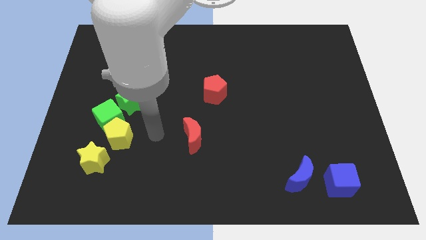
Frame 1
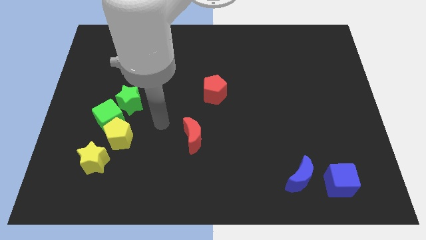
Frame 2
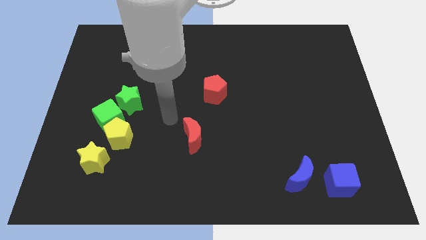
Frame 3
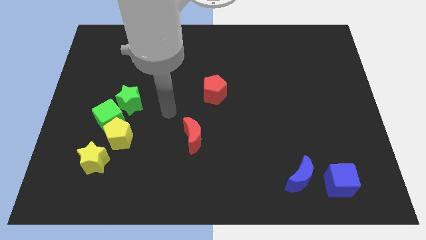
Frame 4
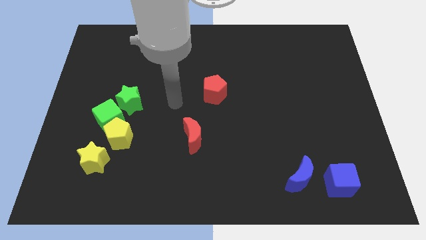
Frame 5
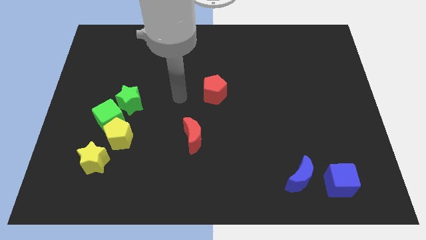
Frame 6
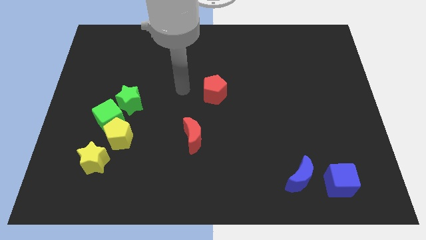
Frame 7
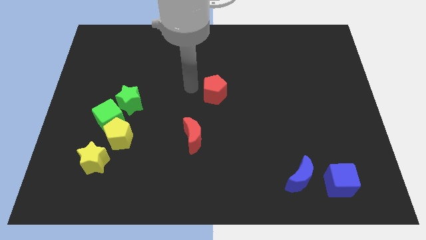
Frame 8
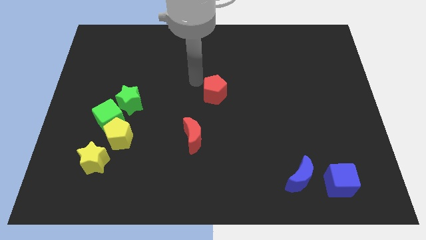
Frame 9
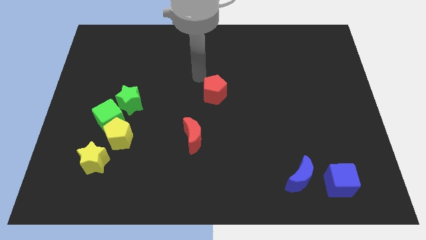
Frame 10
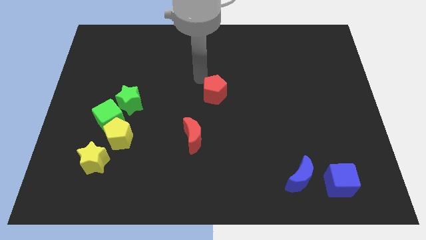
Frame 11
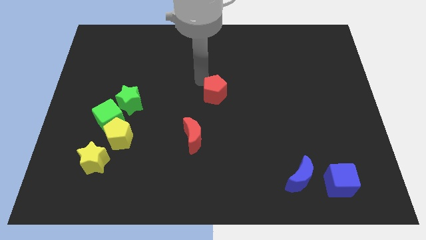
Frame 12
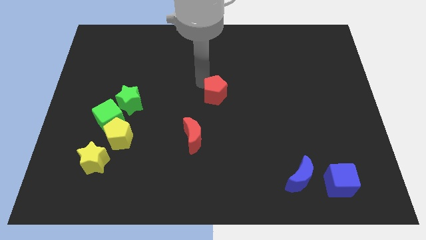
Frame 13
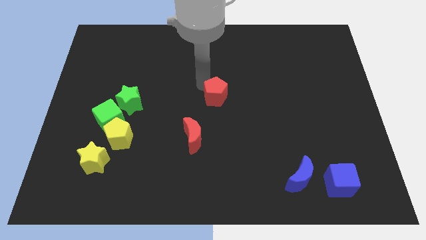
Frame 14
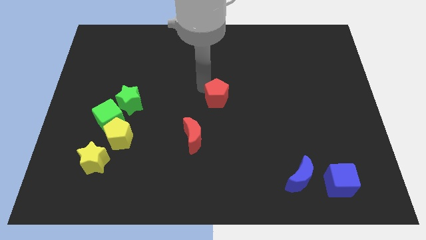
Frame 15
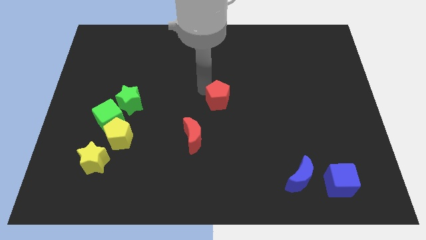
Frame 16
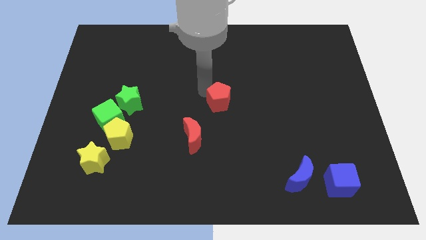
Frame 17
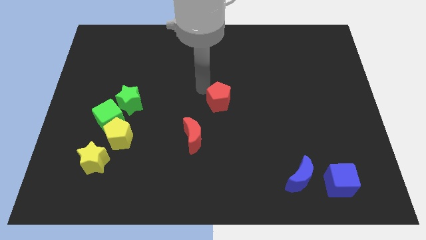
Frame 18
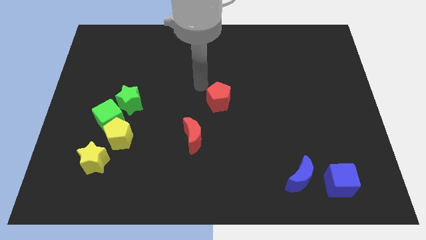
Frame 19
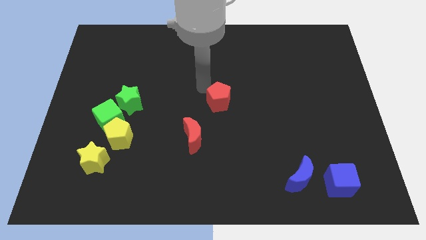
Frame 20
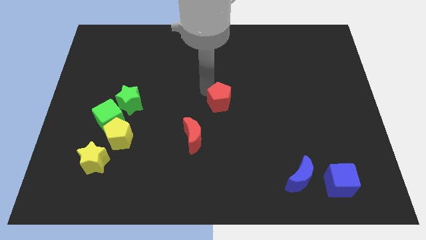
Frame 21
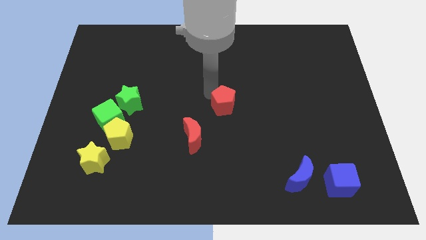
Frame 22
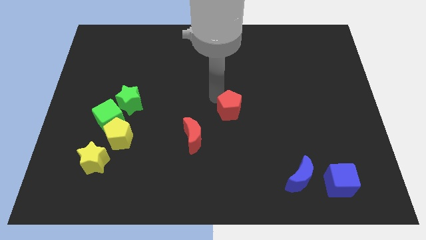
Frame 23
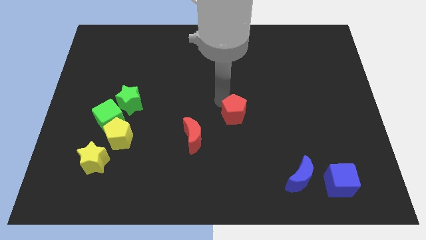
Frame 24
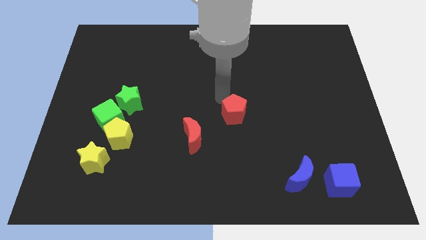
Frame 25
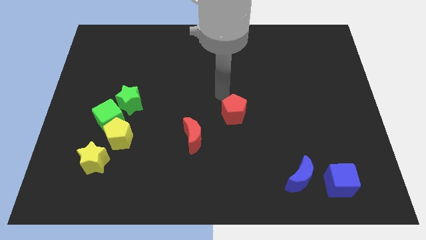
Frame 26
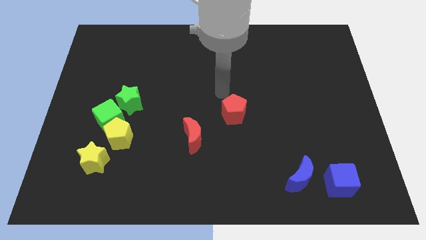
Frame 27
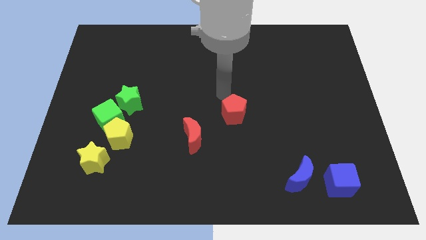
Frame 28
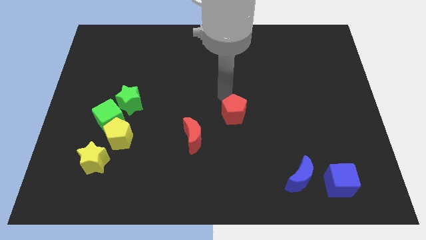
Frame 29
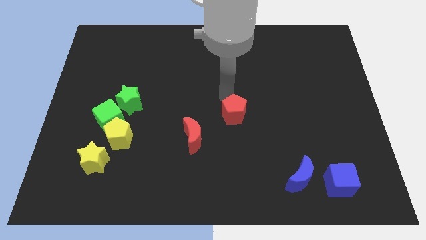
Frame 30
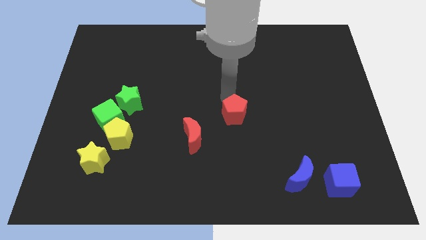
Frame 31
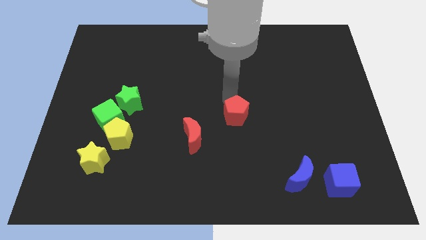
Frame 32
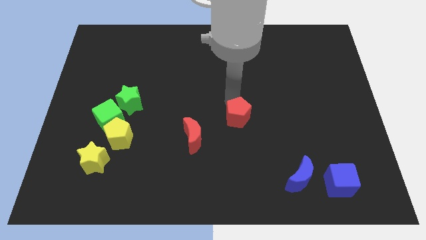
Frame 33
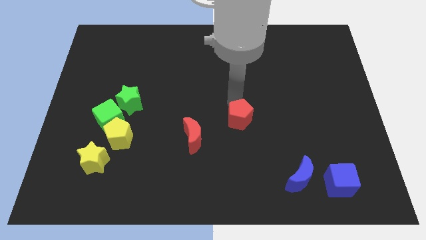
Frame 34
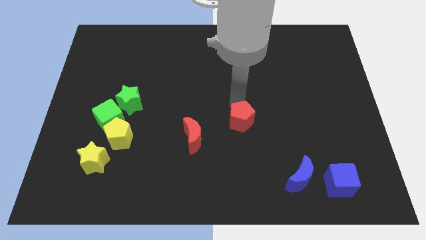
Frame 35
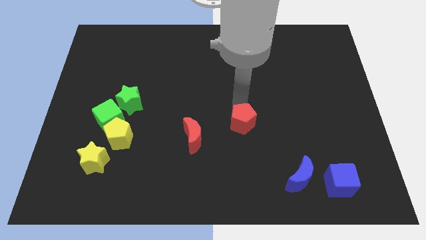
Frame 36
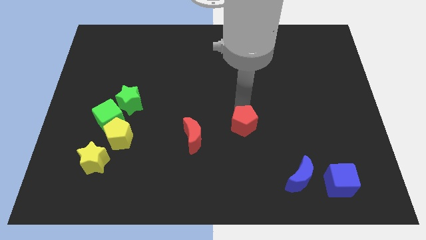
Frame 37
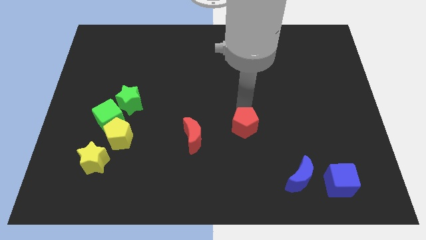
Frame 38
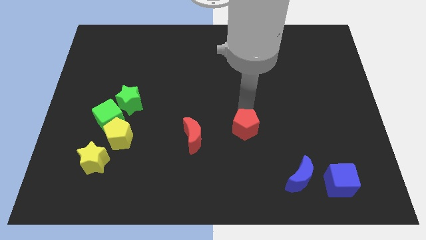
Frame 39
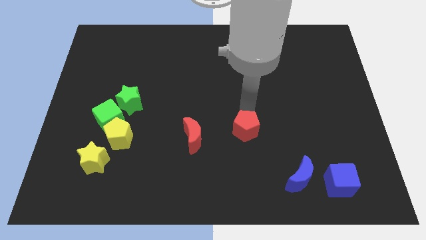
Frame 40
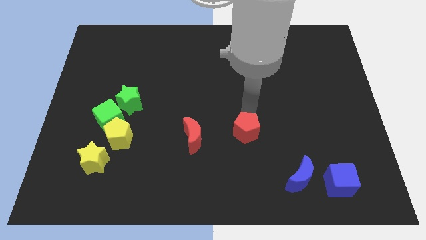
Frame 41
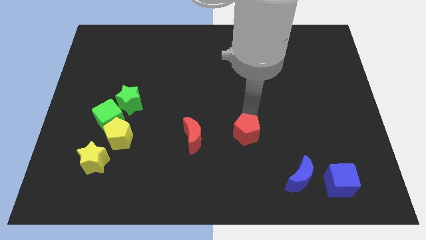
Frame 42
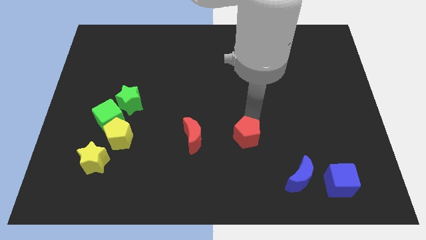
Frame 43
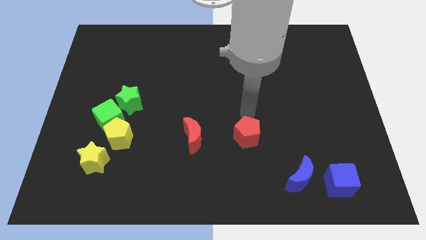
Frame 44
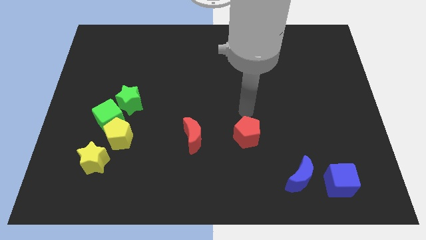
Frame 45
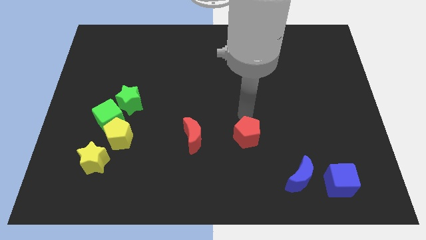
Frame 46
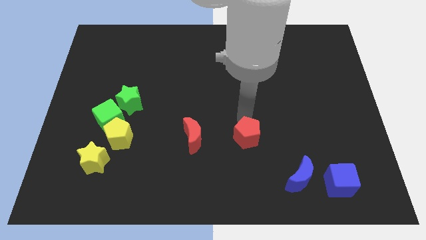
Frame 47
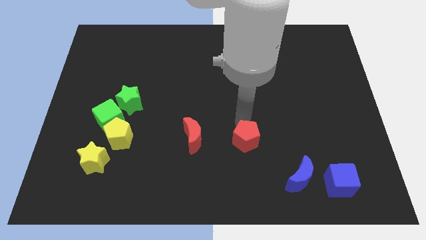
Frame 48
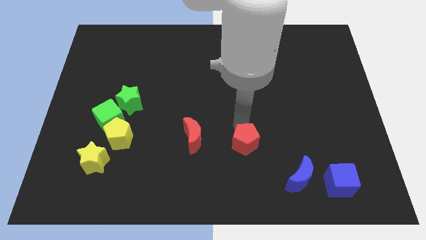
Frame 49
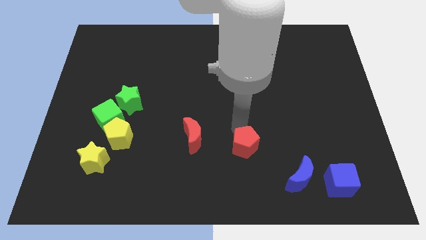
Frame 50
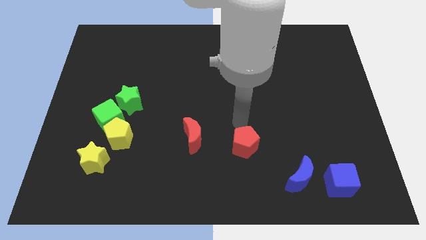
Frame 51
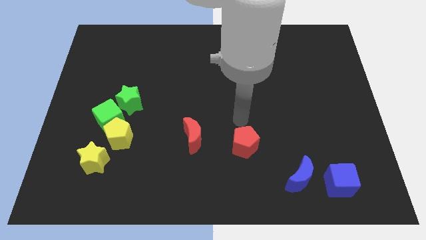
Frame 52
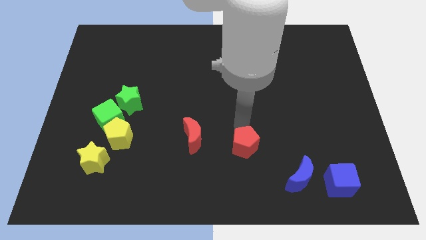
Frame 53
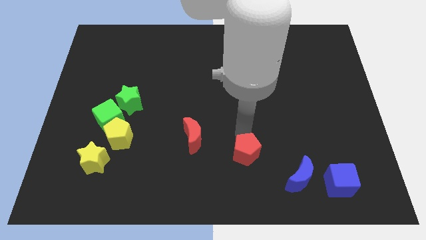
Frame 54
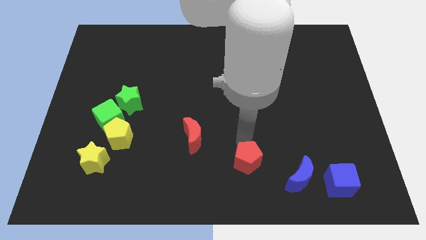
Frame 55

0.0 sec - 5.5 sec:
push the red pentagon to the left side of the blue moon
